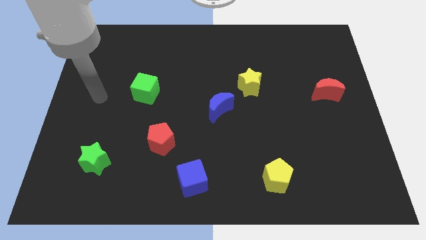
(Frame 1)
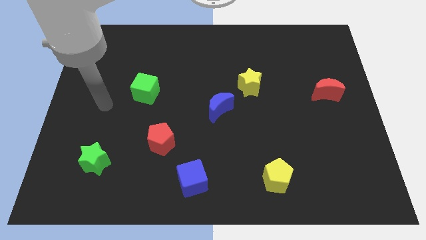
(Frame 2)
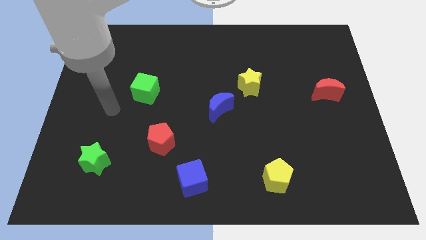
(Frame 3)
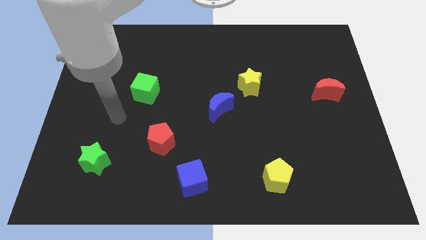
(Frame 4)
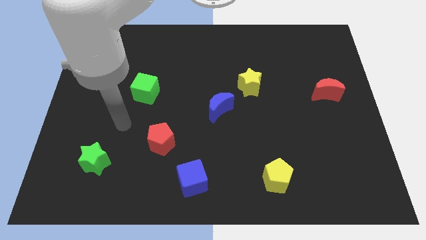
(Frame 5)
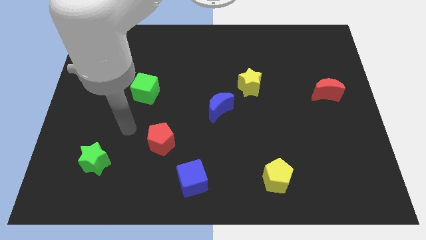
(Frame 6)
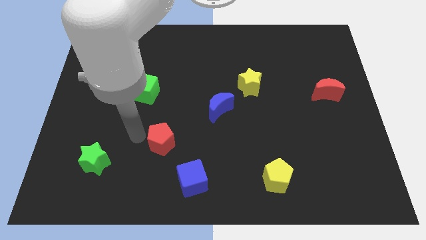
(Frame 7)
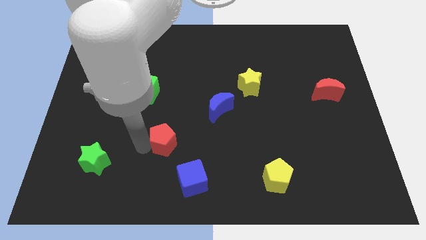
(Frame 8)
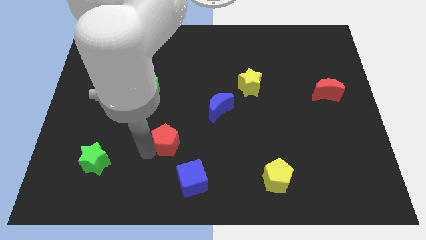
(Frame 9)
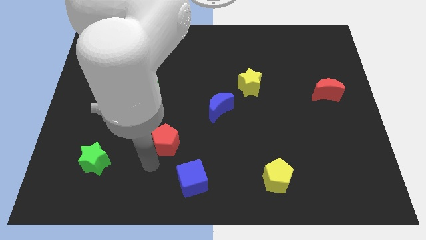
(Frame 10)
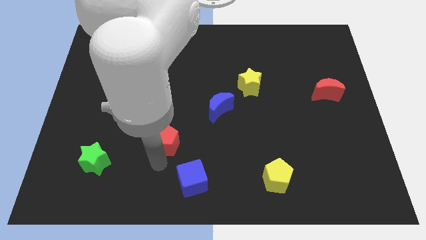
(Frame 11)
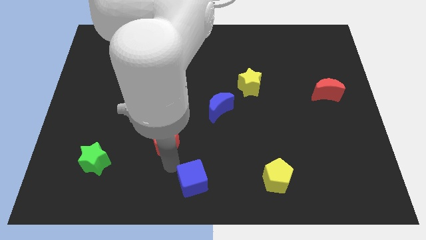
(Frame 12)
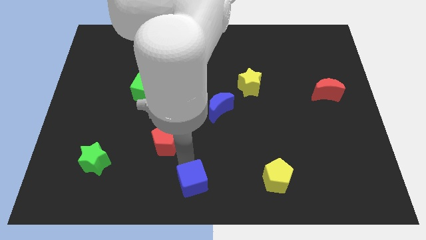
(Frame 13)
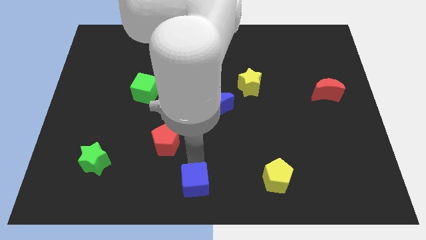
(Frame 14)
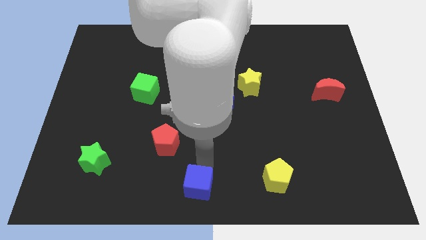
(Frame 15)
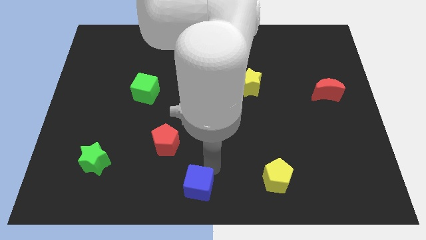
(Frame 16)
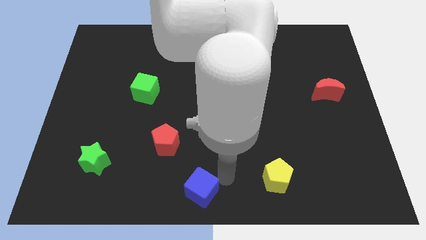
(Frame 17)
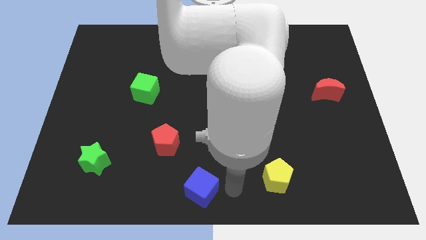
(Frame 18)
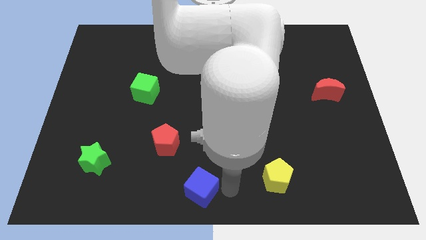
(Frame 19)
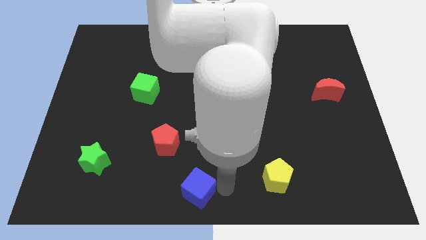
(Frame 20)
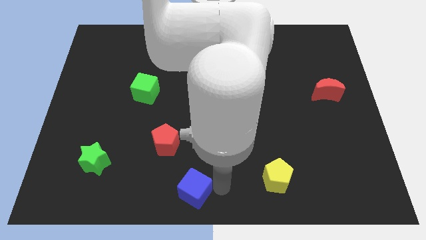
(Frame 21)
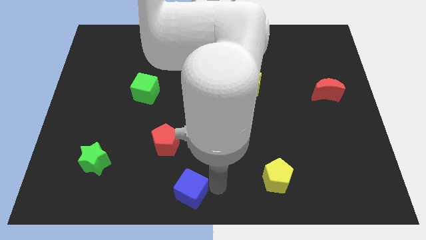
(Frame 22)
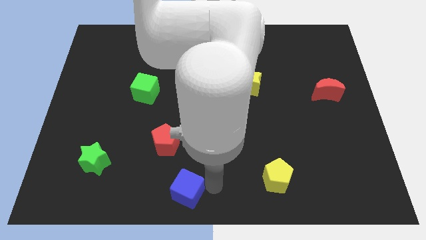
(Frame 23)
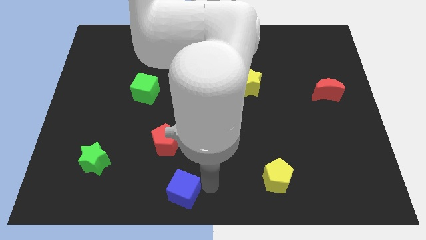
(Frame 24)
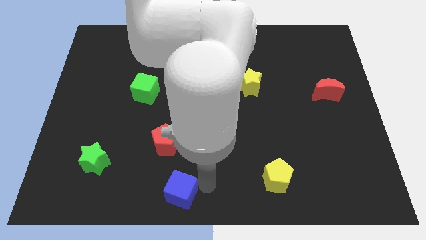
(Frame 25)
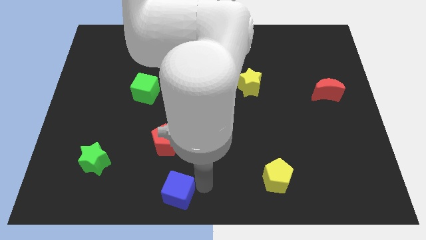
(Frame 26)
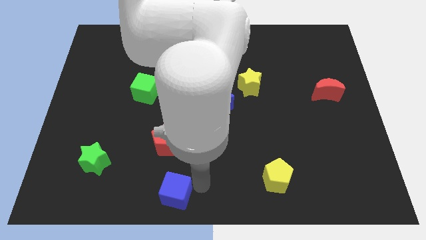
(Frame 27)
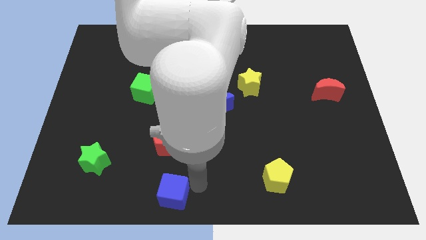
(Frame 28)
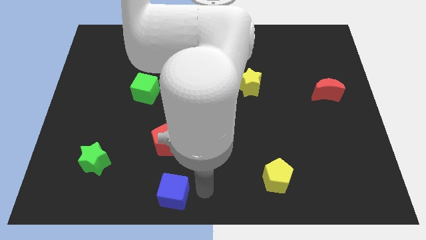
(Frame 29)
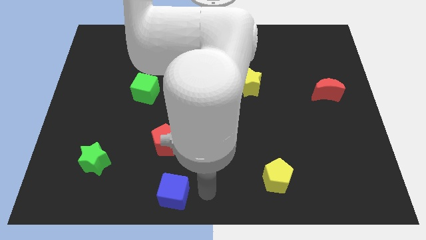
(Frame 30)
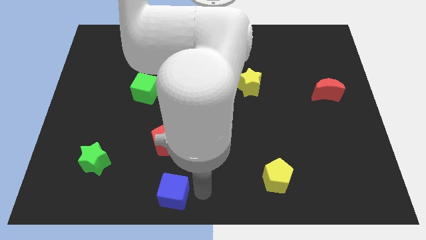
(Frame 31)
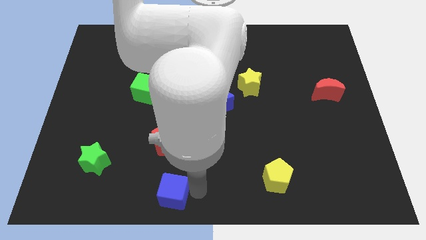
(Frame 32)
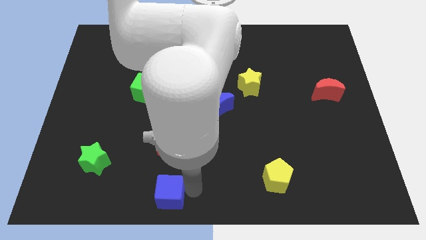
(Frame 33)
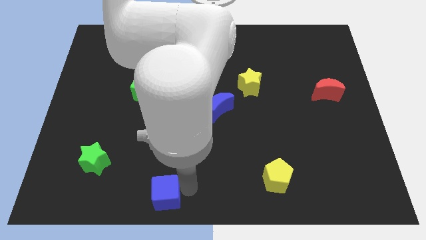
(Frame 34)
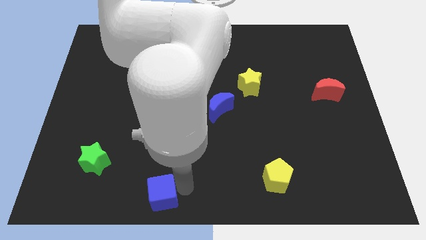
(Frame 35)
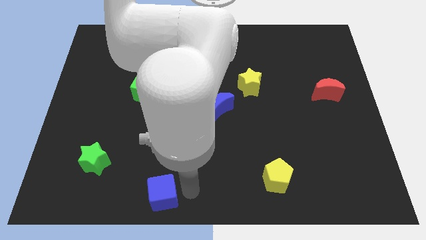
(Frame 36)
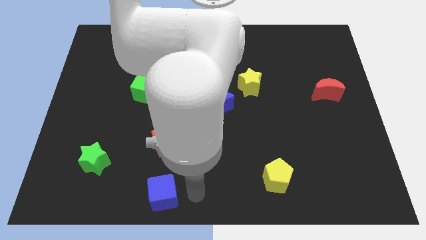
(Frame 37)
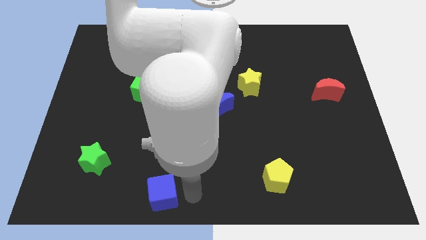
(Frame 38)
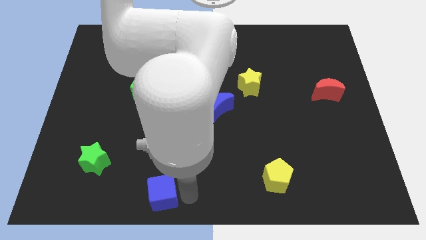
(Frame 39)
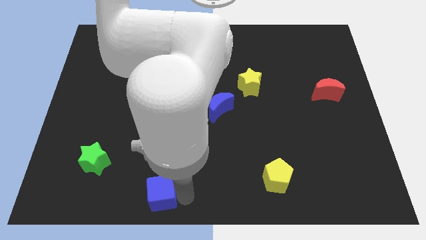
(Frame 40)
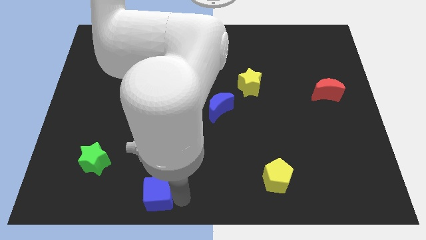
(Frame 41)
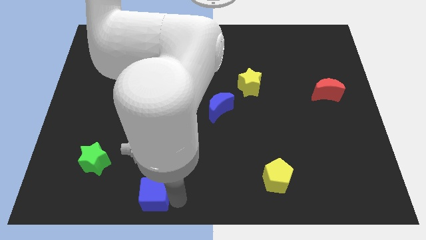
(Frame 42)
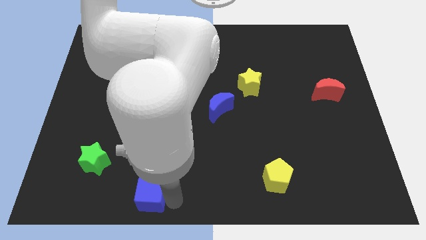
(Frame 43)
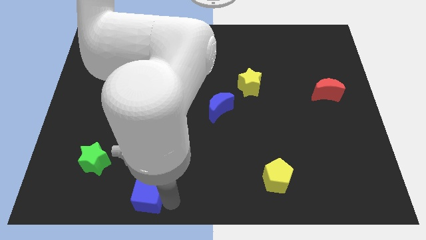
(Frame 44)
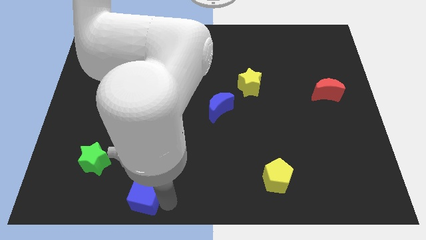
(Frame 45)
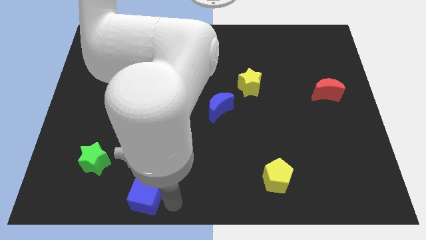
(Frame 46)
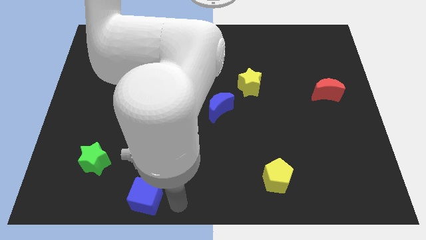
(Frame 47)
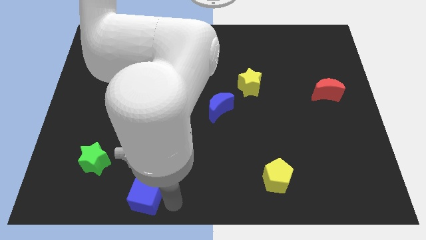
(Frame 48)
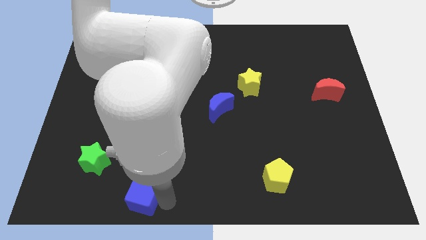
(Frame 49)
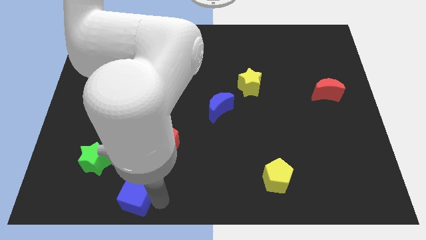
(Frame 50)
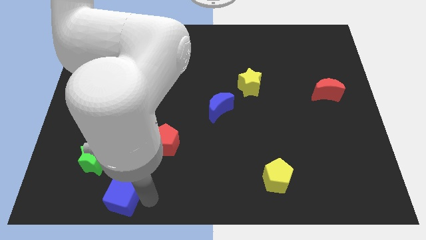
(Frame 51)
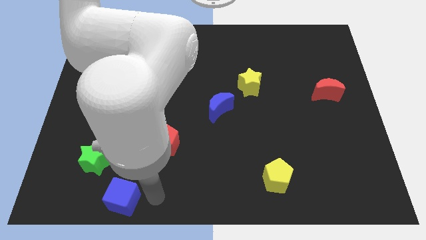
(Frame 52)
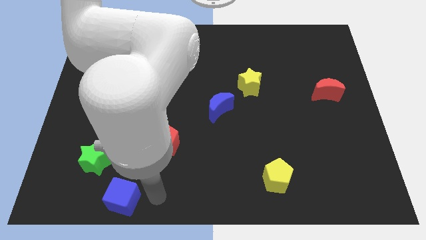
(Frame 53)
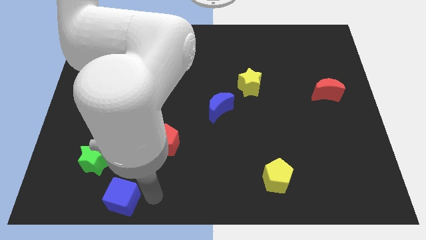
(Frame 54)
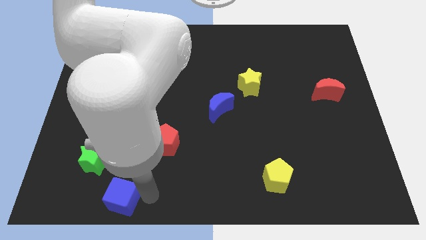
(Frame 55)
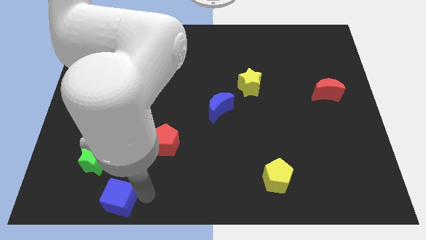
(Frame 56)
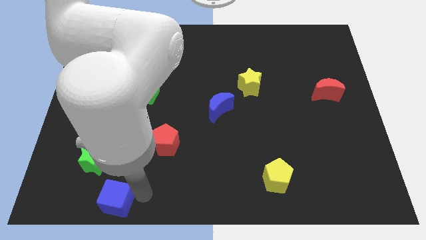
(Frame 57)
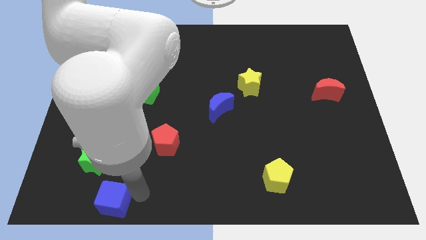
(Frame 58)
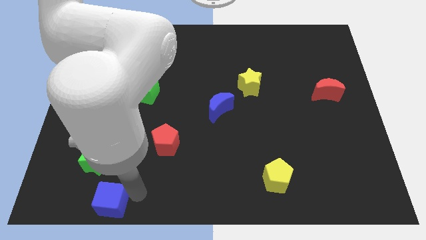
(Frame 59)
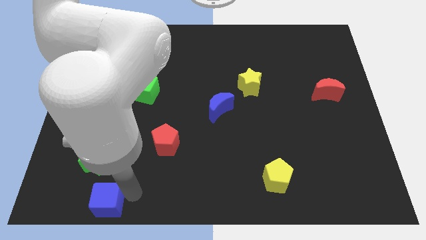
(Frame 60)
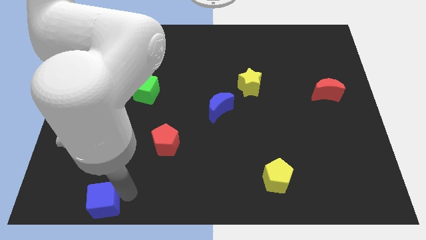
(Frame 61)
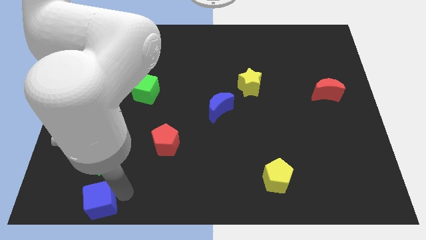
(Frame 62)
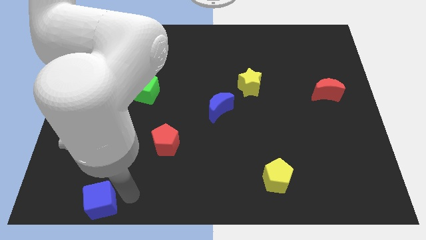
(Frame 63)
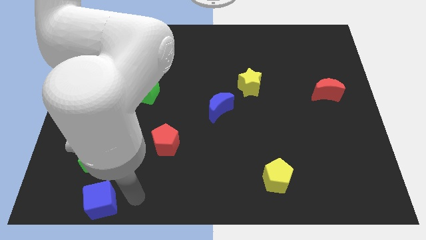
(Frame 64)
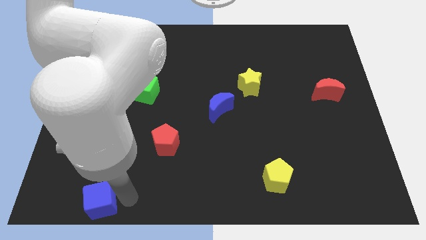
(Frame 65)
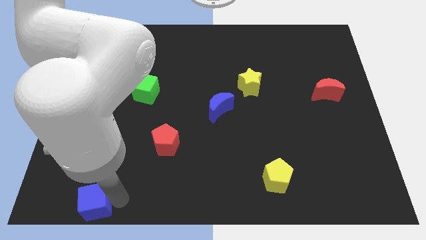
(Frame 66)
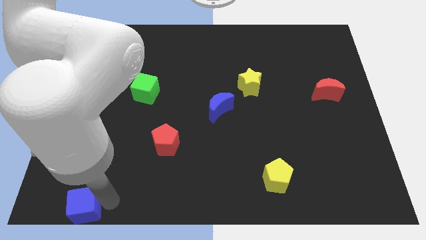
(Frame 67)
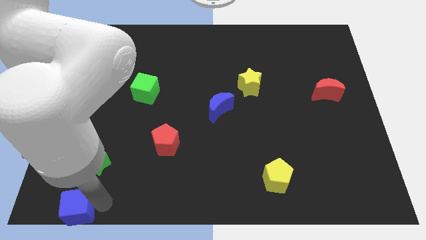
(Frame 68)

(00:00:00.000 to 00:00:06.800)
put the blue cube to the bottom left of the board
